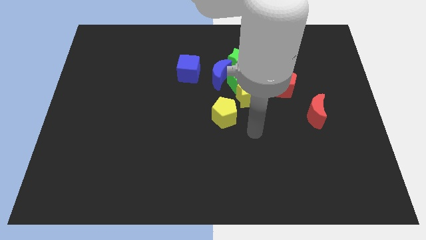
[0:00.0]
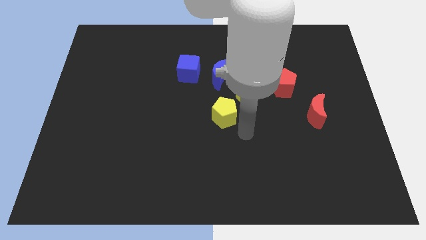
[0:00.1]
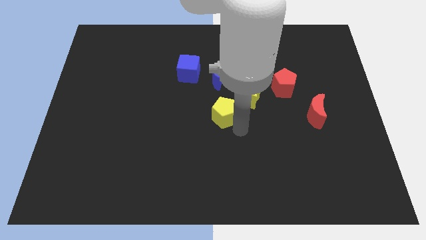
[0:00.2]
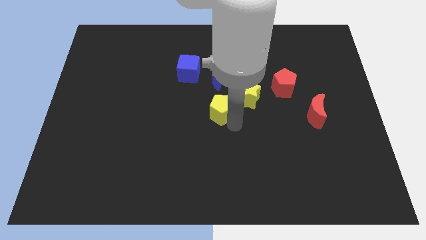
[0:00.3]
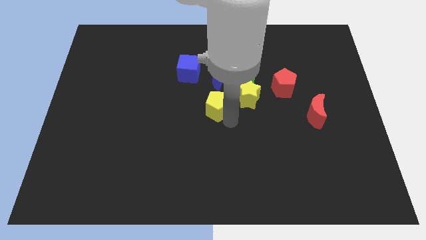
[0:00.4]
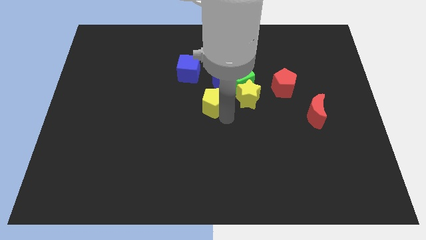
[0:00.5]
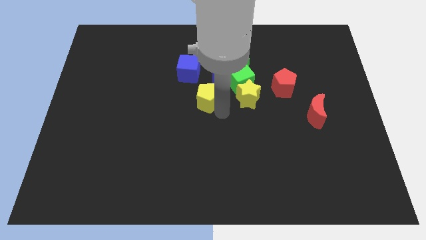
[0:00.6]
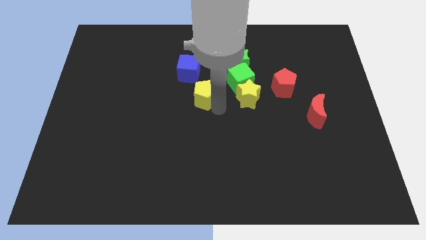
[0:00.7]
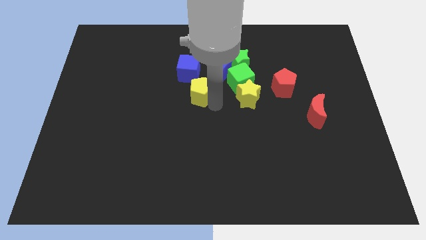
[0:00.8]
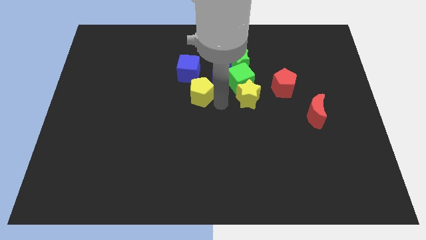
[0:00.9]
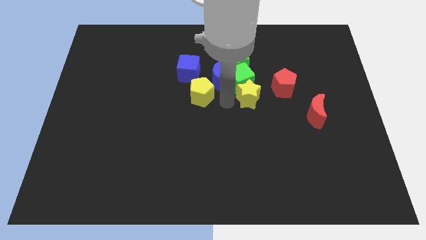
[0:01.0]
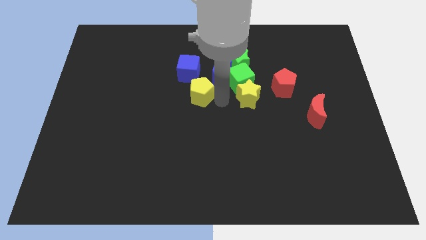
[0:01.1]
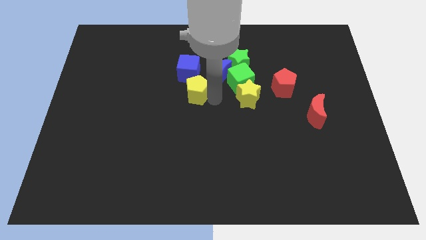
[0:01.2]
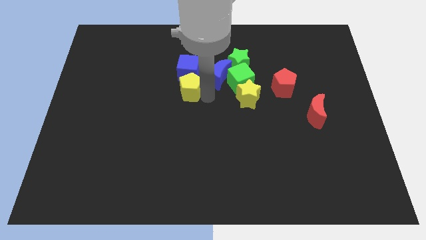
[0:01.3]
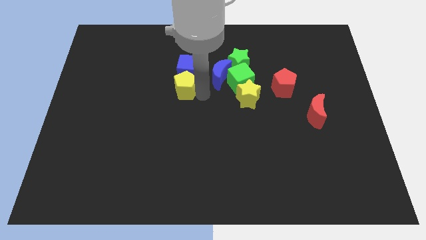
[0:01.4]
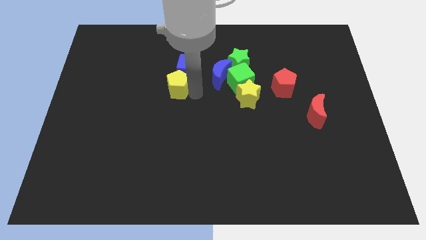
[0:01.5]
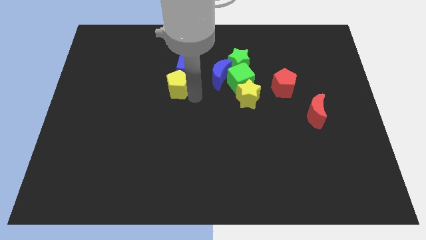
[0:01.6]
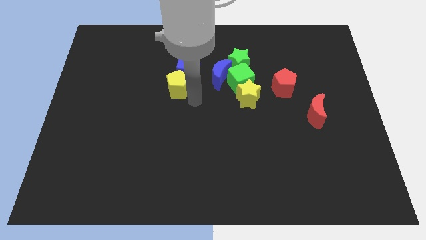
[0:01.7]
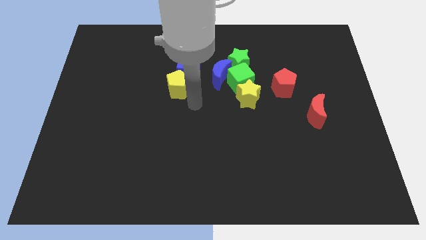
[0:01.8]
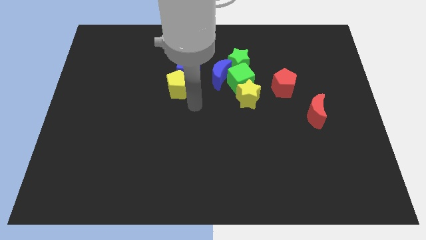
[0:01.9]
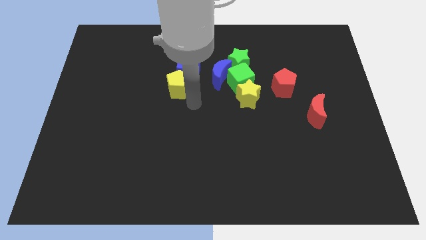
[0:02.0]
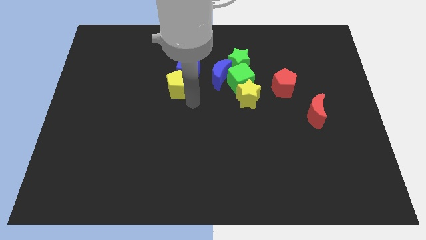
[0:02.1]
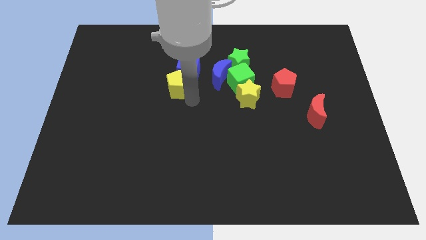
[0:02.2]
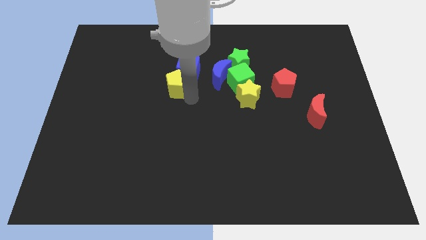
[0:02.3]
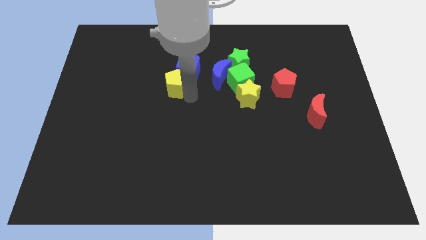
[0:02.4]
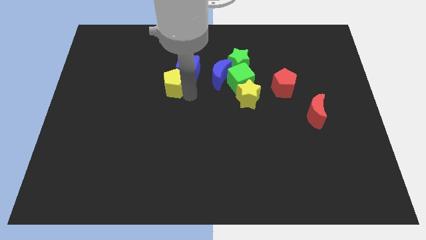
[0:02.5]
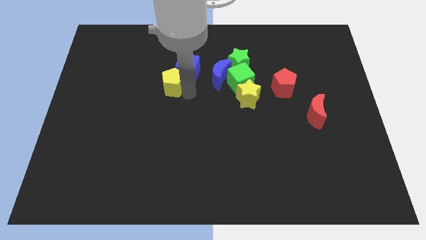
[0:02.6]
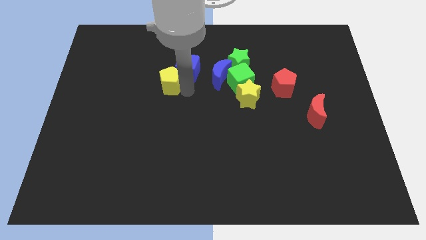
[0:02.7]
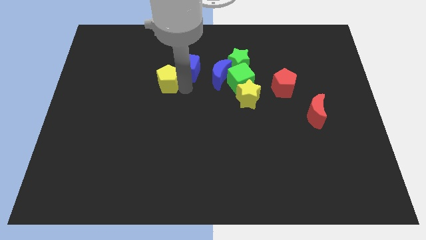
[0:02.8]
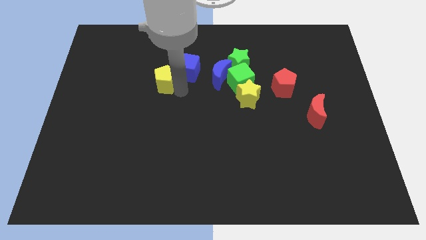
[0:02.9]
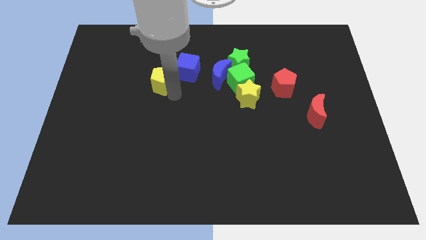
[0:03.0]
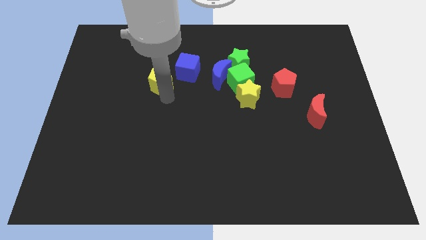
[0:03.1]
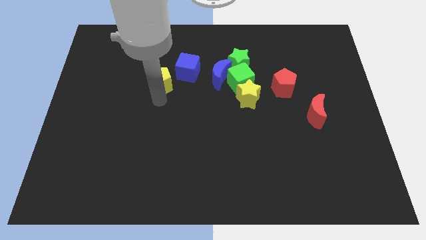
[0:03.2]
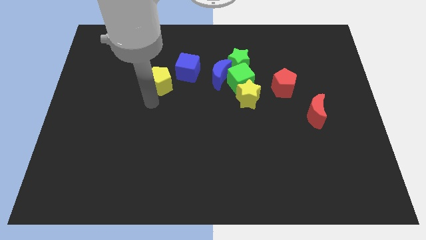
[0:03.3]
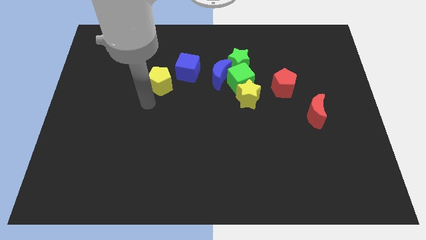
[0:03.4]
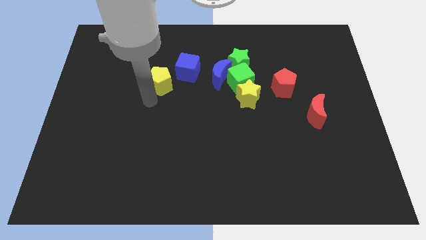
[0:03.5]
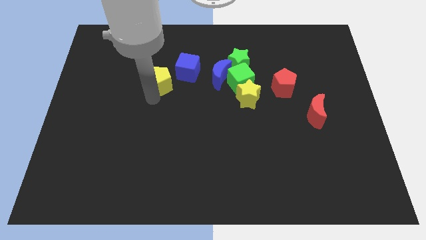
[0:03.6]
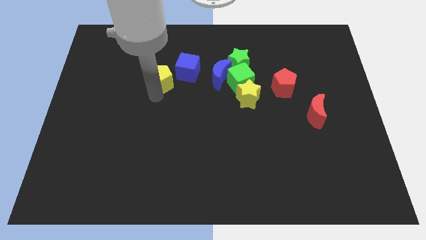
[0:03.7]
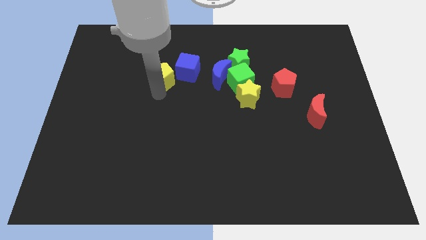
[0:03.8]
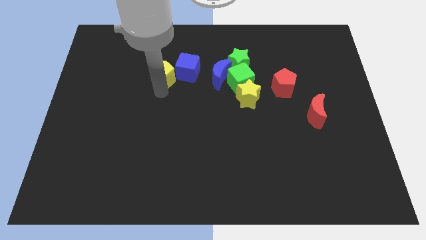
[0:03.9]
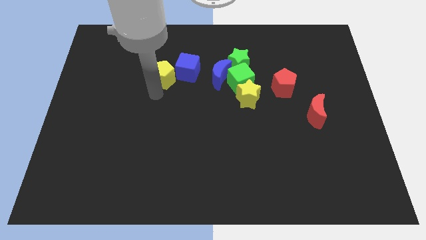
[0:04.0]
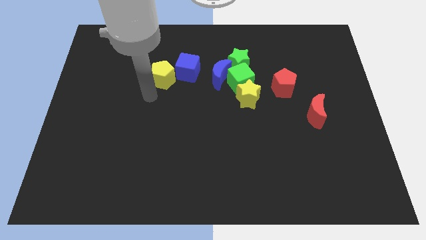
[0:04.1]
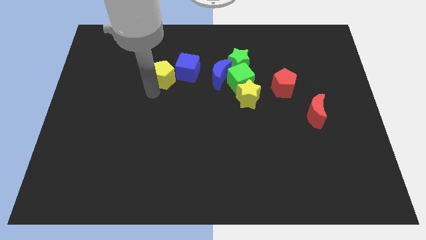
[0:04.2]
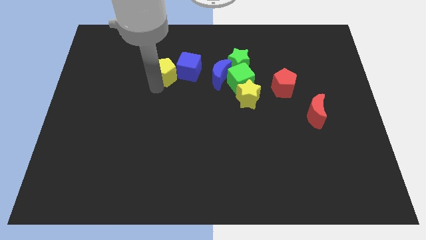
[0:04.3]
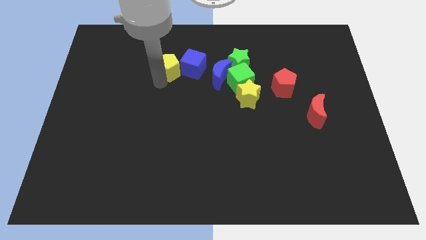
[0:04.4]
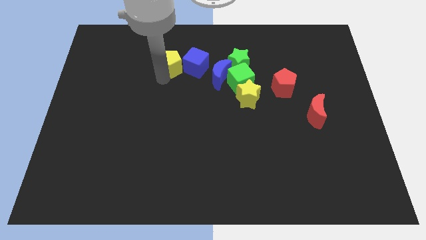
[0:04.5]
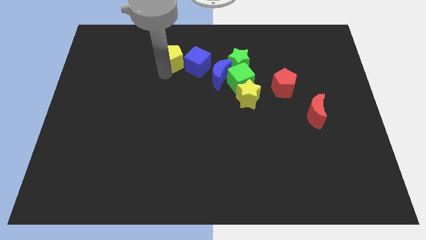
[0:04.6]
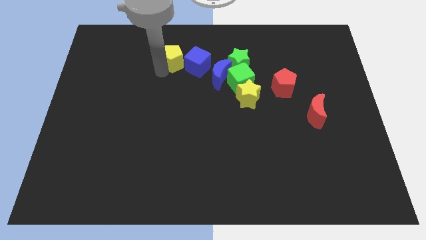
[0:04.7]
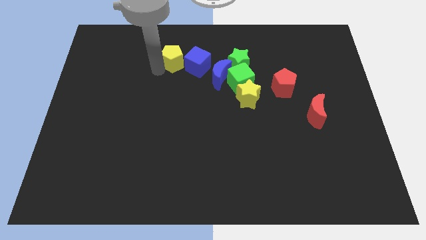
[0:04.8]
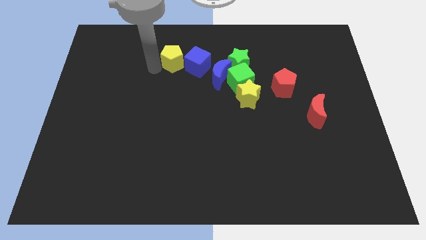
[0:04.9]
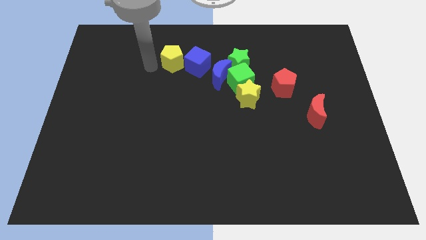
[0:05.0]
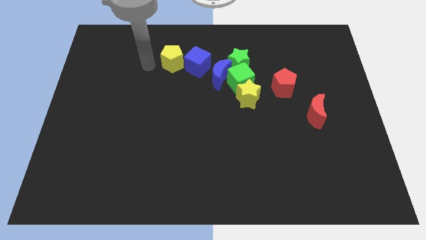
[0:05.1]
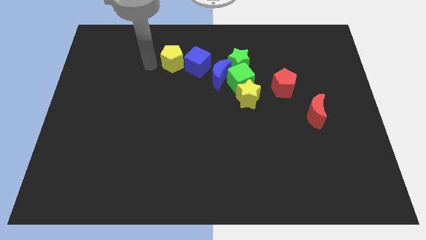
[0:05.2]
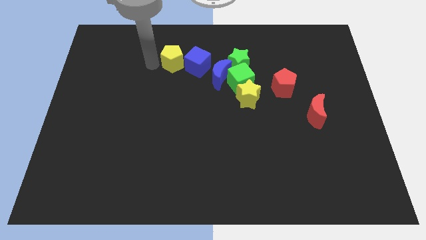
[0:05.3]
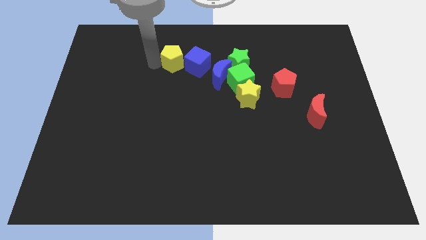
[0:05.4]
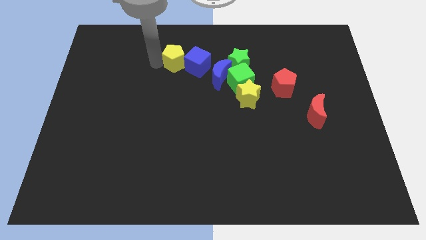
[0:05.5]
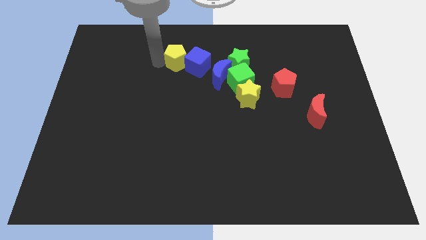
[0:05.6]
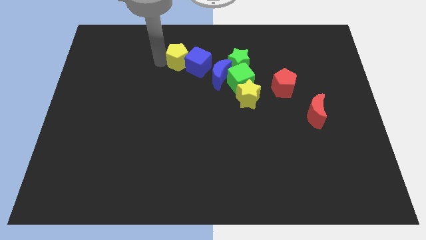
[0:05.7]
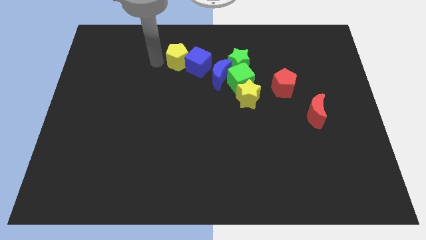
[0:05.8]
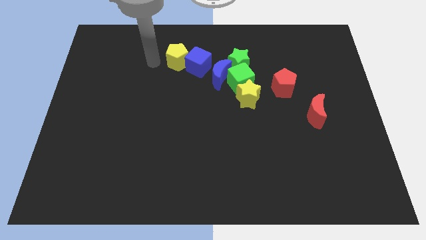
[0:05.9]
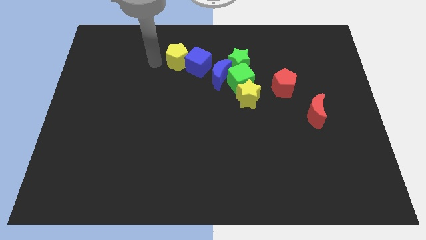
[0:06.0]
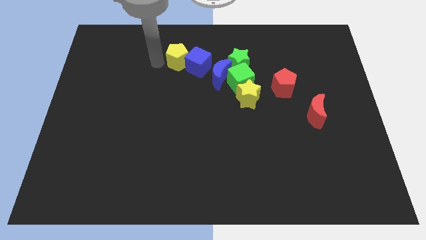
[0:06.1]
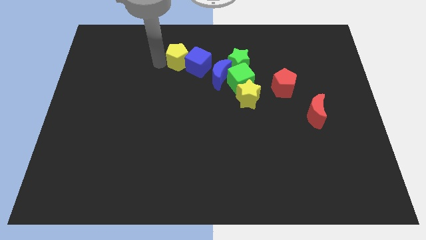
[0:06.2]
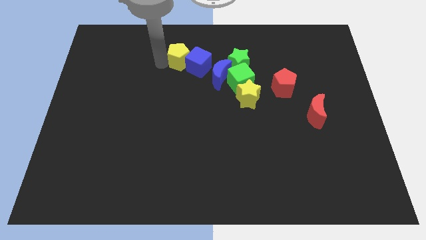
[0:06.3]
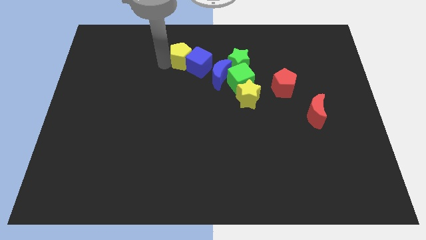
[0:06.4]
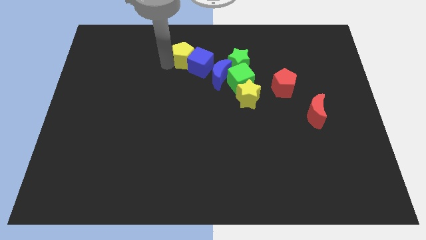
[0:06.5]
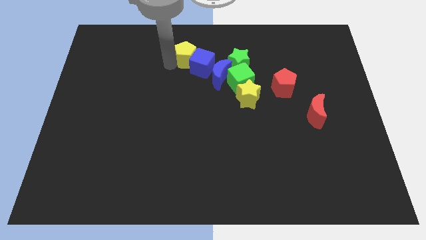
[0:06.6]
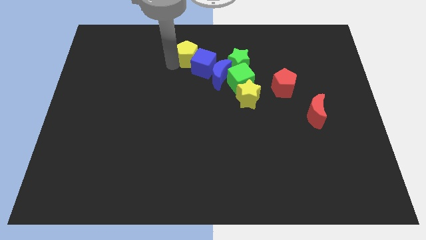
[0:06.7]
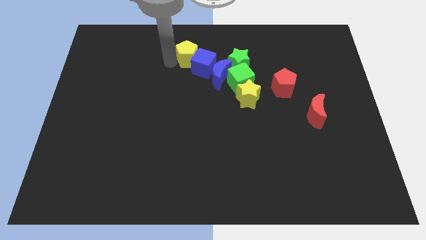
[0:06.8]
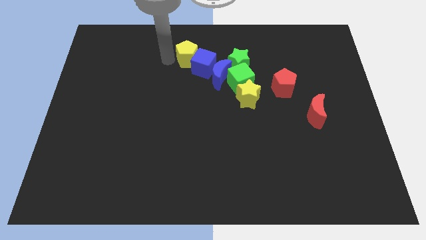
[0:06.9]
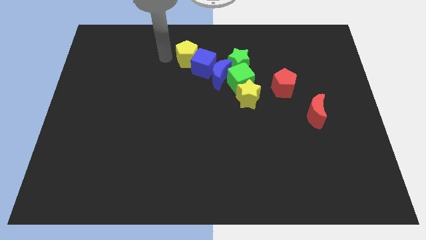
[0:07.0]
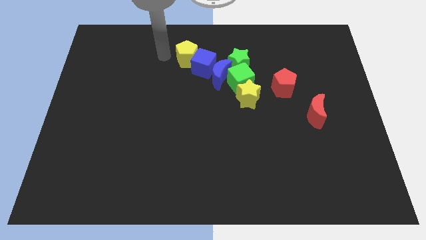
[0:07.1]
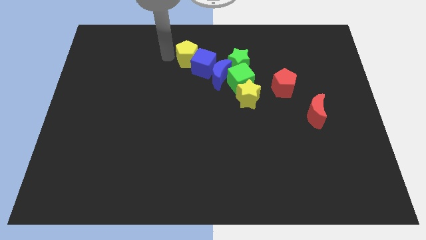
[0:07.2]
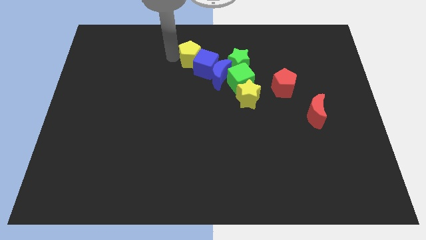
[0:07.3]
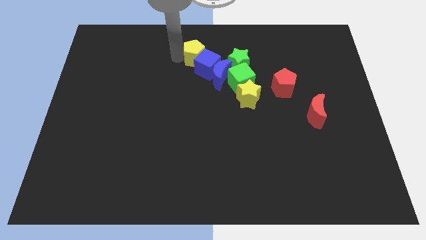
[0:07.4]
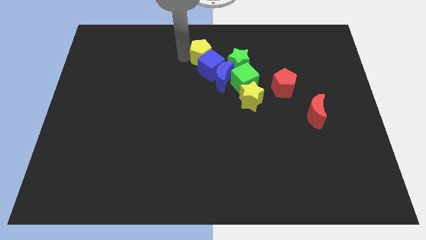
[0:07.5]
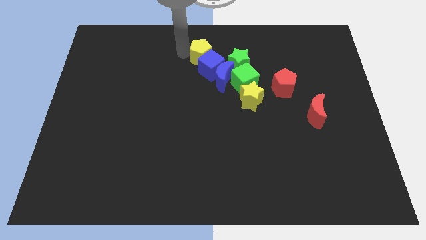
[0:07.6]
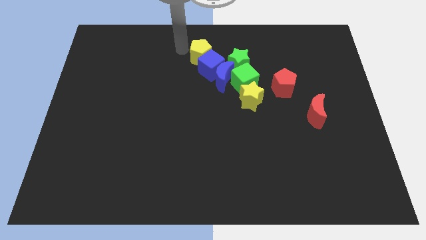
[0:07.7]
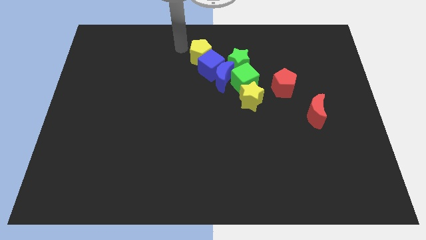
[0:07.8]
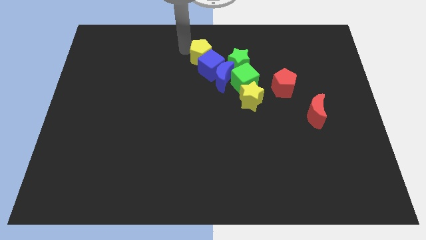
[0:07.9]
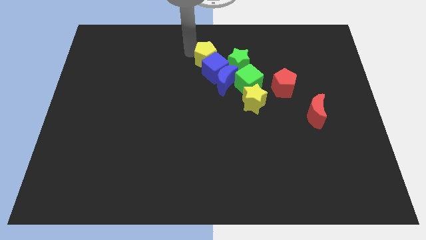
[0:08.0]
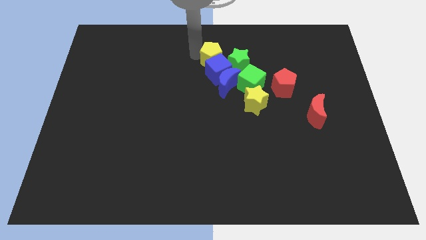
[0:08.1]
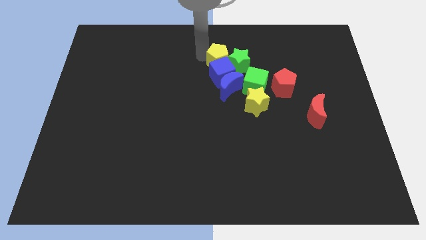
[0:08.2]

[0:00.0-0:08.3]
put the yellow pentagon to the top left of the green cube
